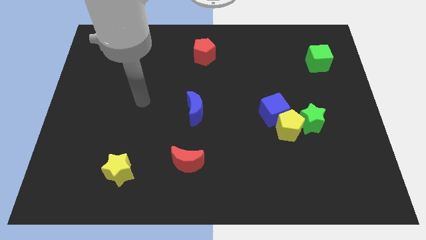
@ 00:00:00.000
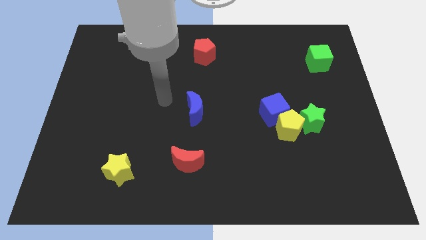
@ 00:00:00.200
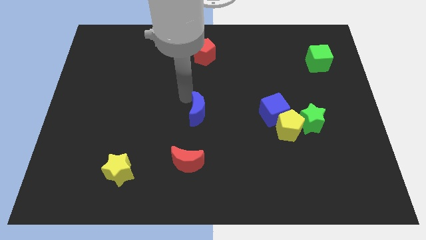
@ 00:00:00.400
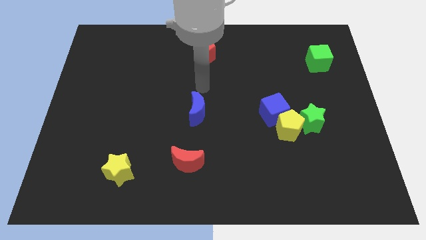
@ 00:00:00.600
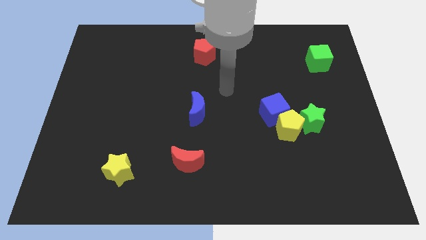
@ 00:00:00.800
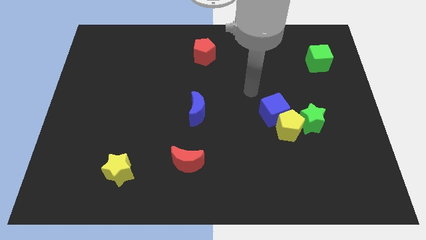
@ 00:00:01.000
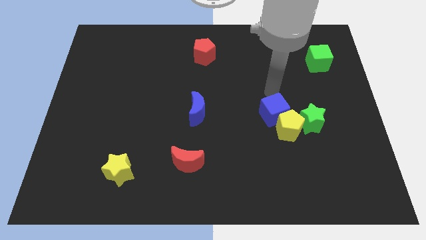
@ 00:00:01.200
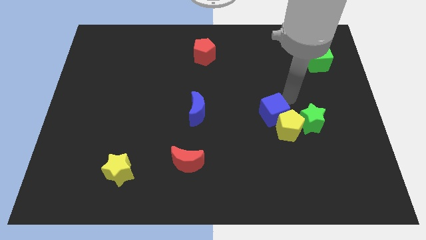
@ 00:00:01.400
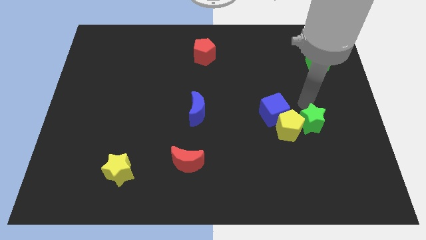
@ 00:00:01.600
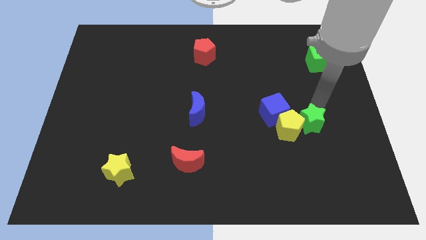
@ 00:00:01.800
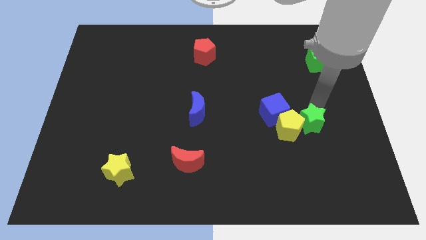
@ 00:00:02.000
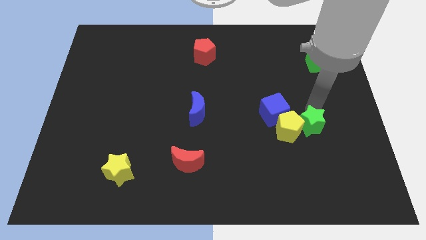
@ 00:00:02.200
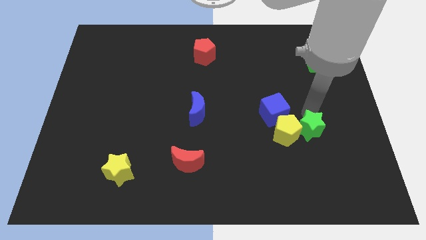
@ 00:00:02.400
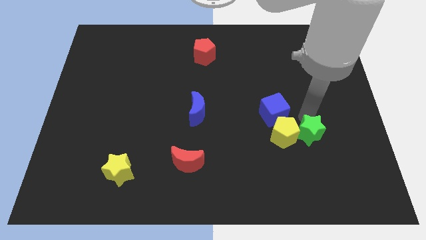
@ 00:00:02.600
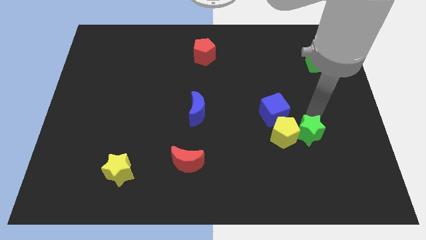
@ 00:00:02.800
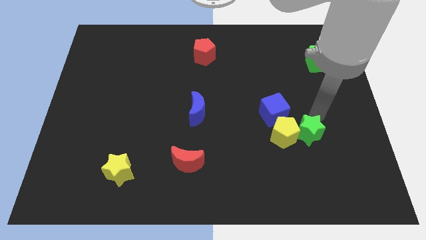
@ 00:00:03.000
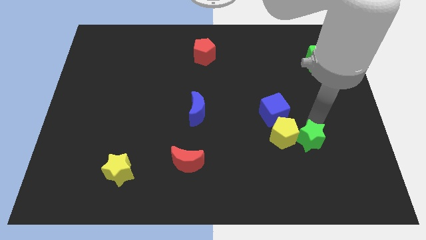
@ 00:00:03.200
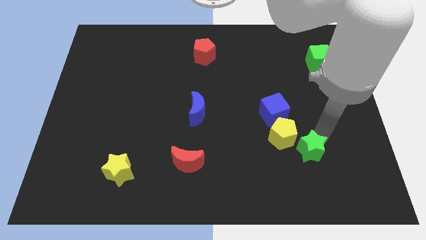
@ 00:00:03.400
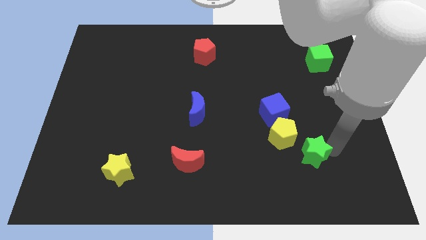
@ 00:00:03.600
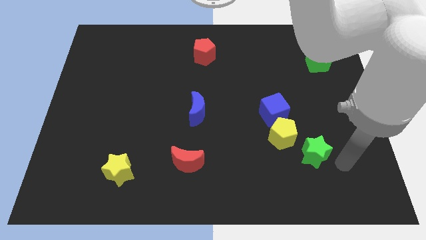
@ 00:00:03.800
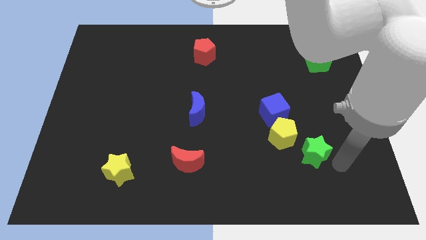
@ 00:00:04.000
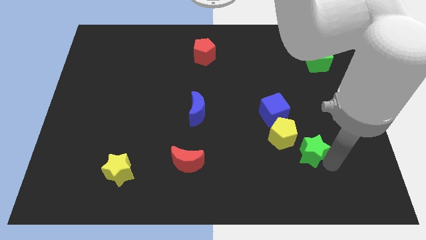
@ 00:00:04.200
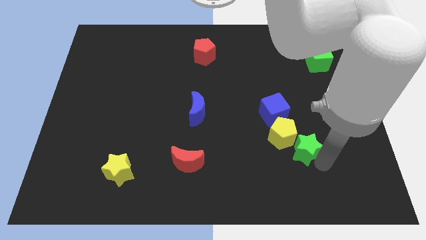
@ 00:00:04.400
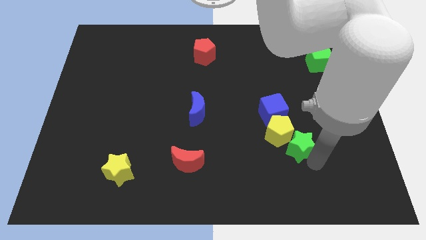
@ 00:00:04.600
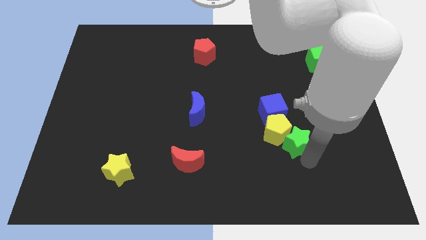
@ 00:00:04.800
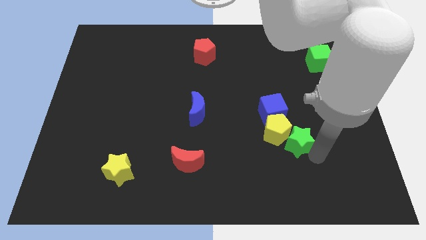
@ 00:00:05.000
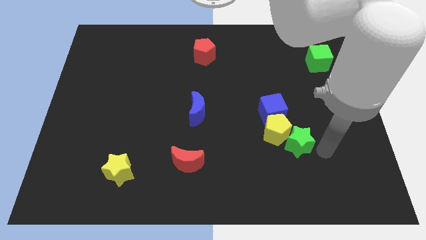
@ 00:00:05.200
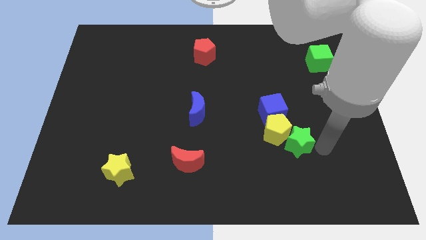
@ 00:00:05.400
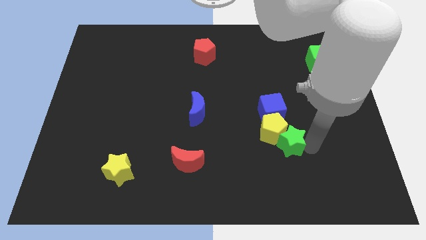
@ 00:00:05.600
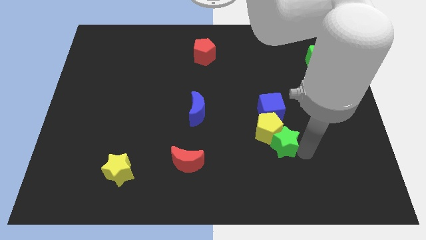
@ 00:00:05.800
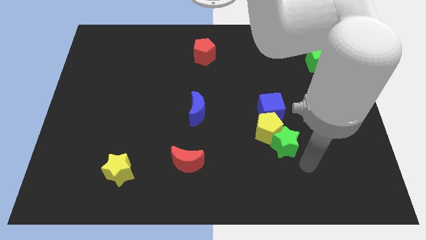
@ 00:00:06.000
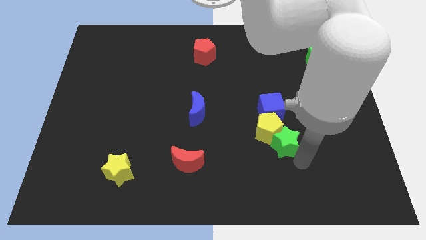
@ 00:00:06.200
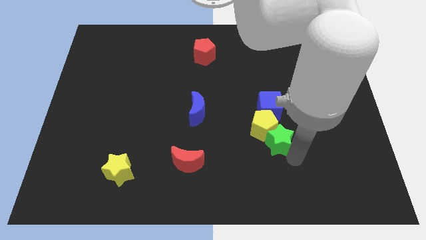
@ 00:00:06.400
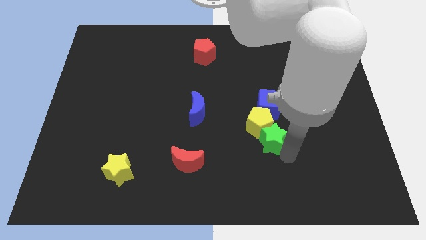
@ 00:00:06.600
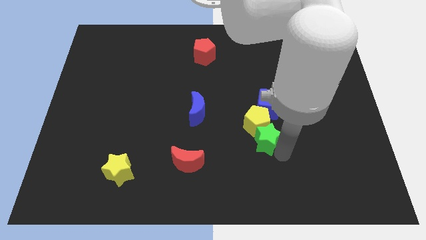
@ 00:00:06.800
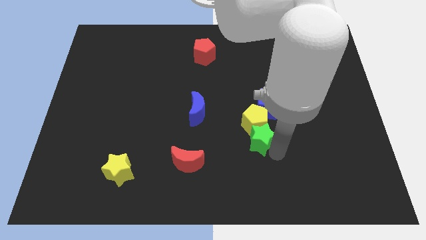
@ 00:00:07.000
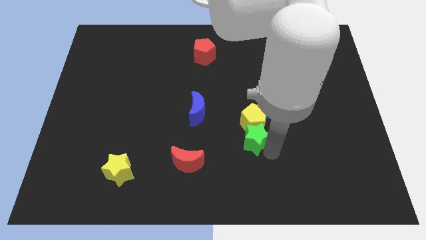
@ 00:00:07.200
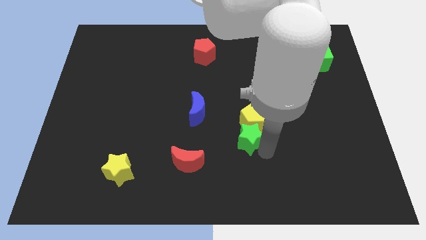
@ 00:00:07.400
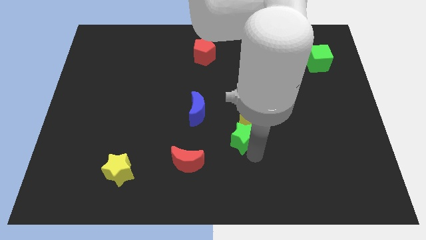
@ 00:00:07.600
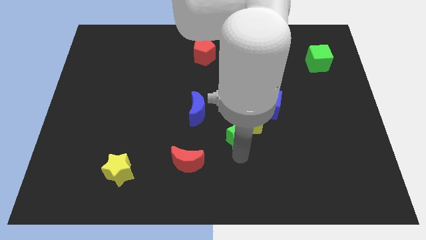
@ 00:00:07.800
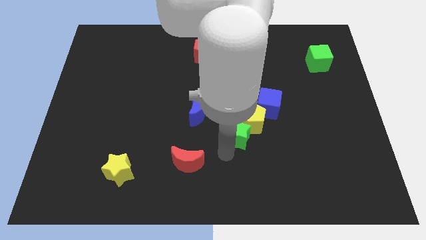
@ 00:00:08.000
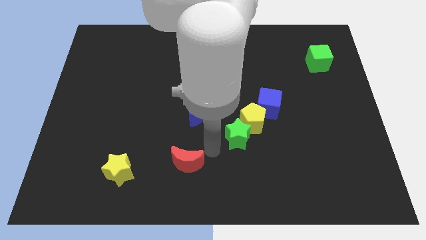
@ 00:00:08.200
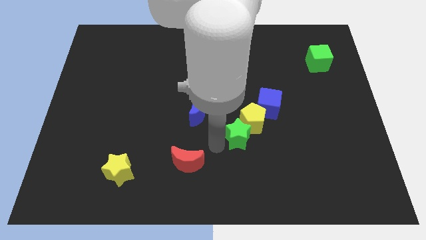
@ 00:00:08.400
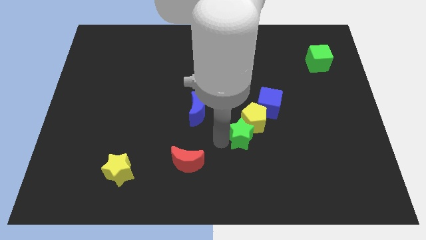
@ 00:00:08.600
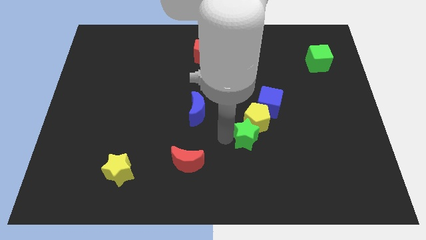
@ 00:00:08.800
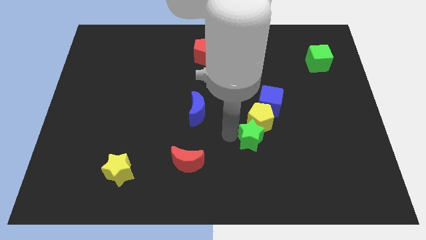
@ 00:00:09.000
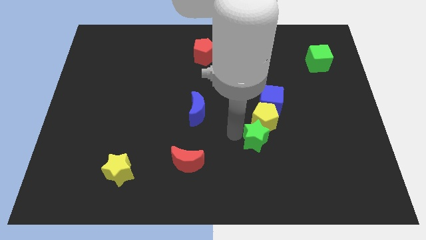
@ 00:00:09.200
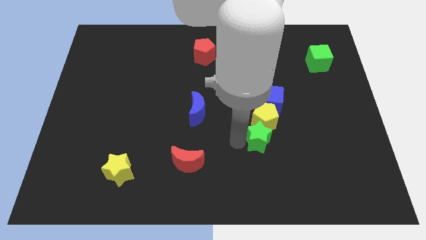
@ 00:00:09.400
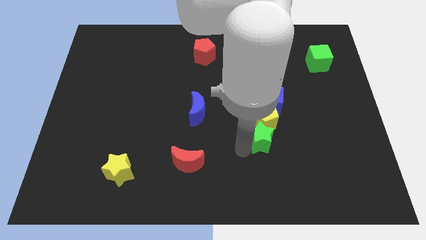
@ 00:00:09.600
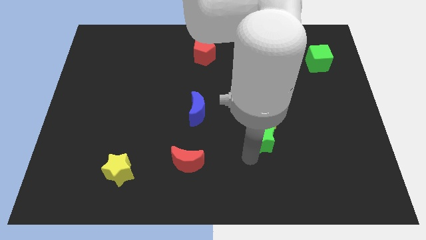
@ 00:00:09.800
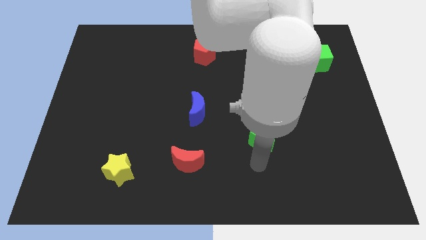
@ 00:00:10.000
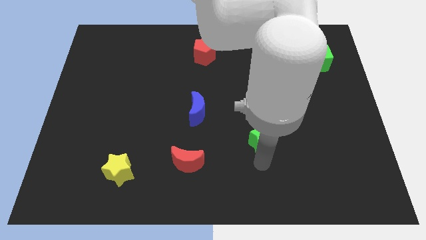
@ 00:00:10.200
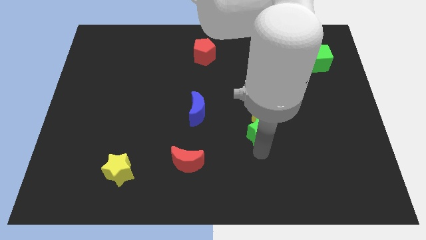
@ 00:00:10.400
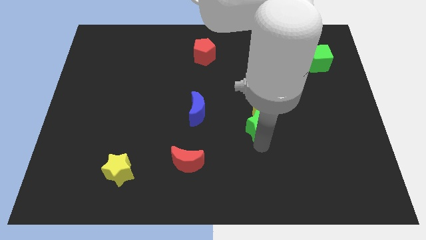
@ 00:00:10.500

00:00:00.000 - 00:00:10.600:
slide the green star just right of the blue moon

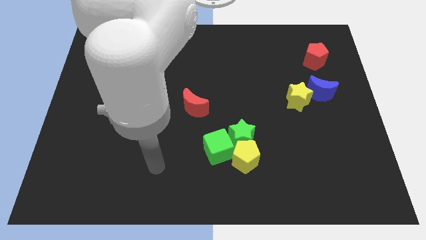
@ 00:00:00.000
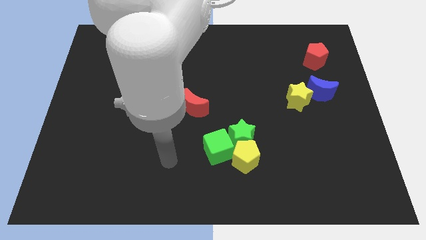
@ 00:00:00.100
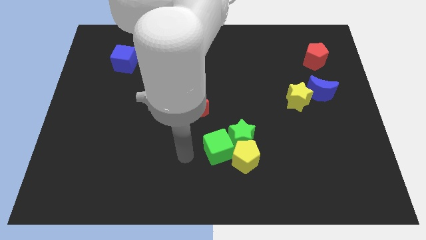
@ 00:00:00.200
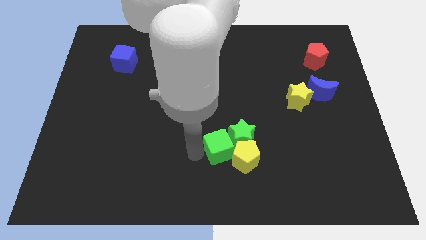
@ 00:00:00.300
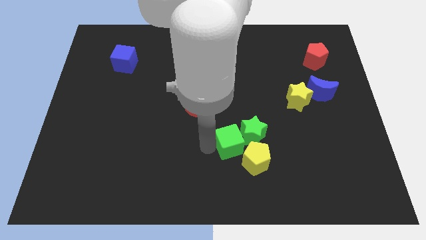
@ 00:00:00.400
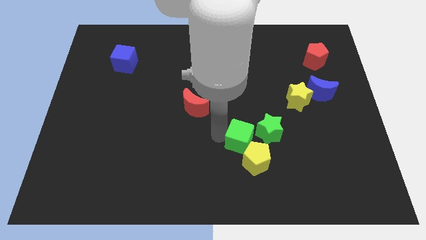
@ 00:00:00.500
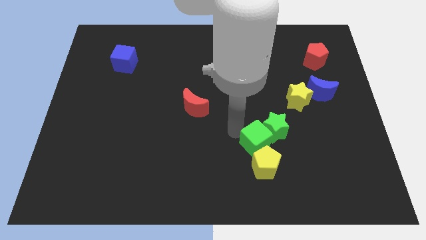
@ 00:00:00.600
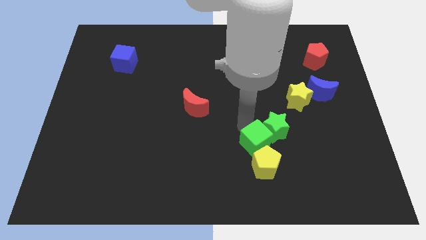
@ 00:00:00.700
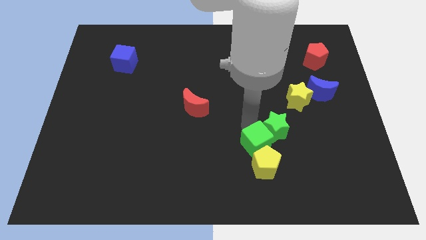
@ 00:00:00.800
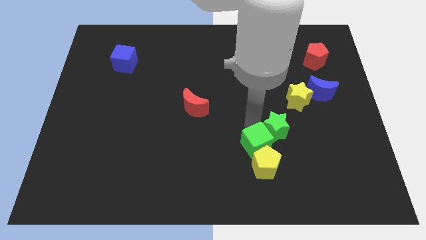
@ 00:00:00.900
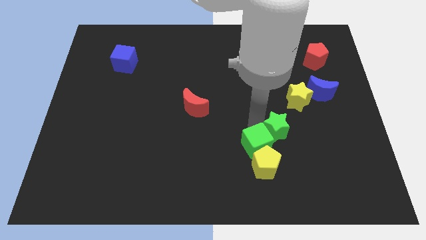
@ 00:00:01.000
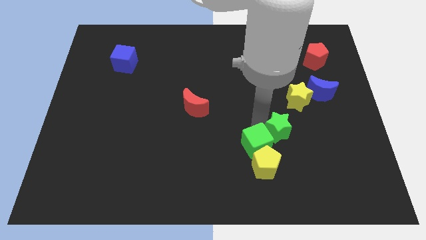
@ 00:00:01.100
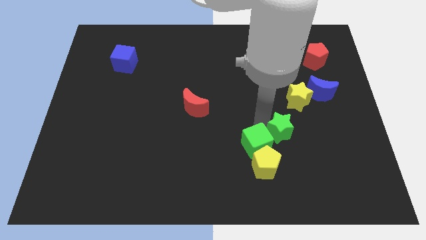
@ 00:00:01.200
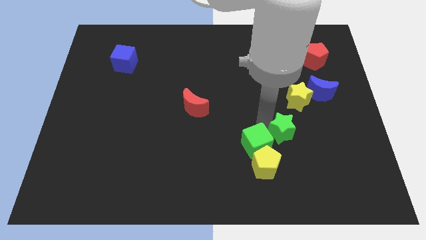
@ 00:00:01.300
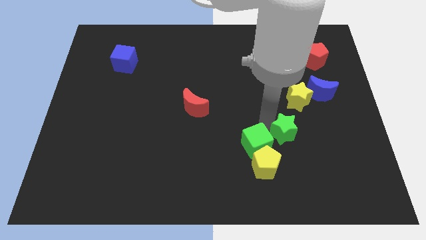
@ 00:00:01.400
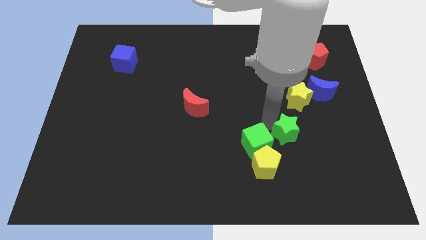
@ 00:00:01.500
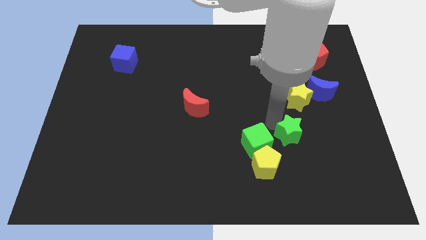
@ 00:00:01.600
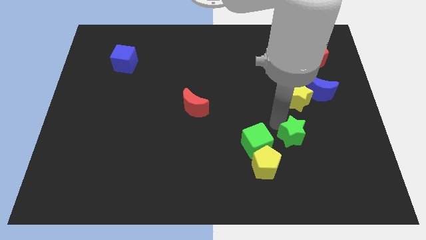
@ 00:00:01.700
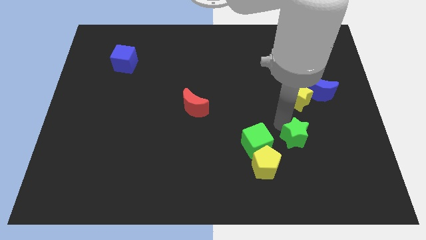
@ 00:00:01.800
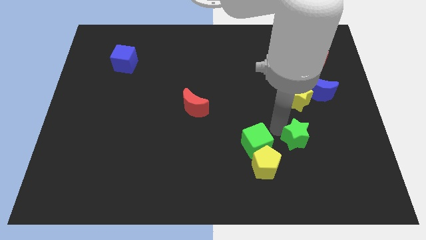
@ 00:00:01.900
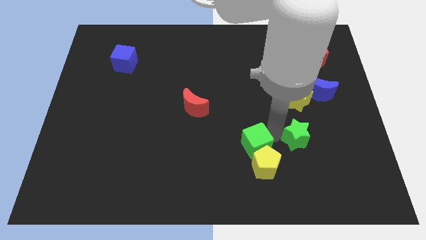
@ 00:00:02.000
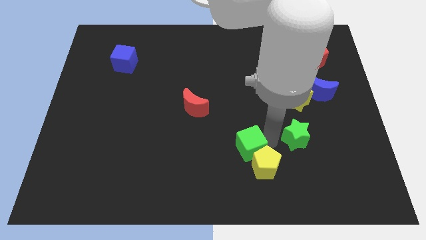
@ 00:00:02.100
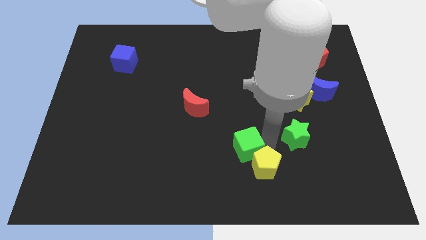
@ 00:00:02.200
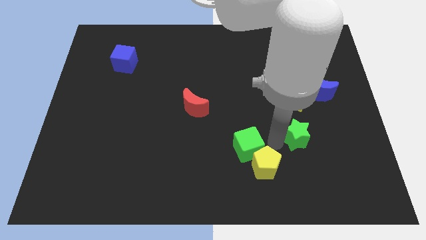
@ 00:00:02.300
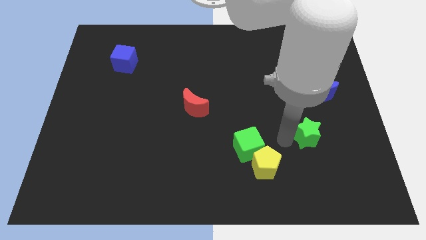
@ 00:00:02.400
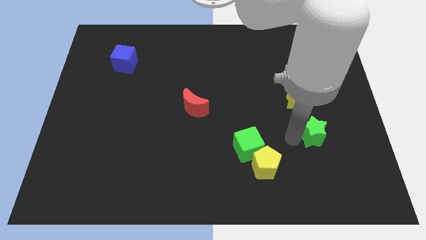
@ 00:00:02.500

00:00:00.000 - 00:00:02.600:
move the green star to the bottom of the blue moon
